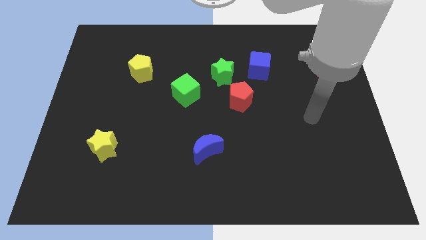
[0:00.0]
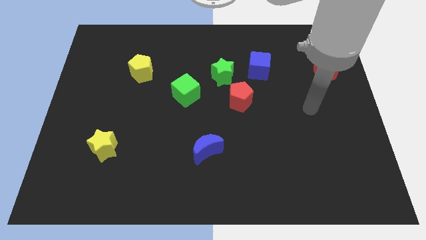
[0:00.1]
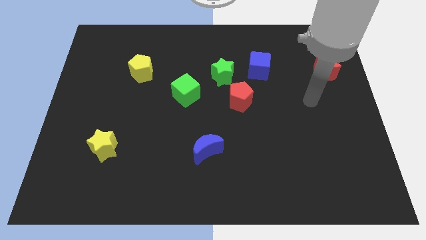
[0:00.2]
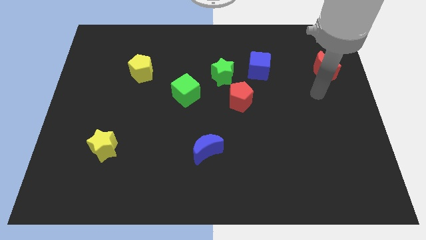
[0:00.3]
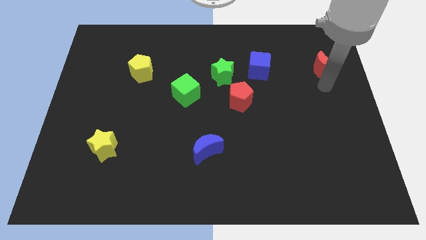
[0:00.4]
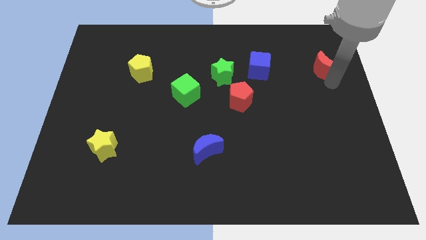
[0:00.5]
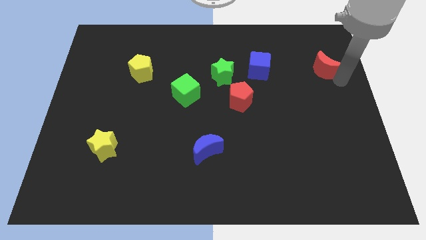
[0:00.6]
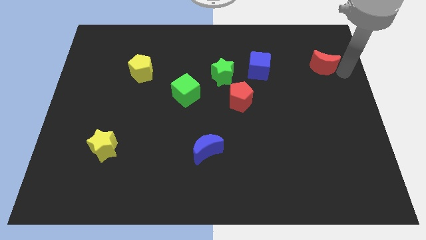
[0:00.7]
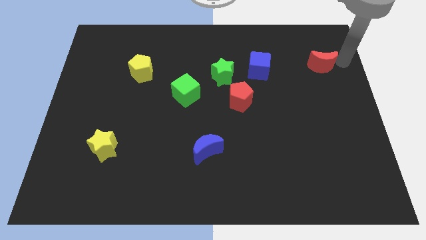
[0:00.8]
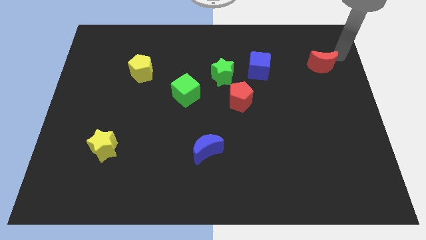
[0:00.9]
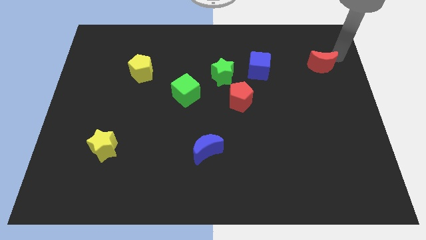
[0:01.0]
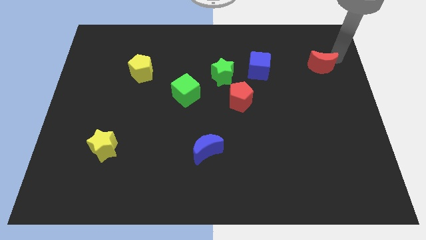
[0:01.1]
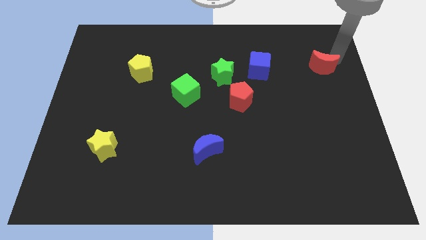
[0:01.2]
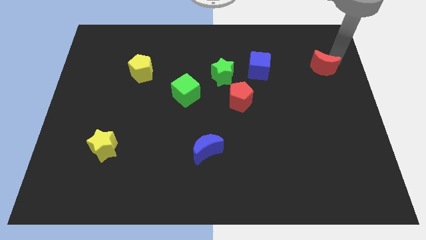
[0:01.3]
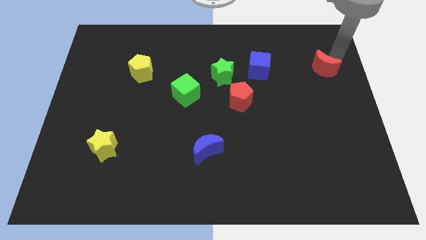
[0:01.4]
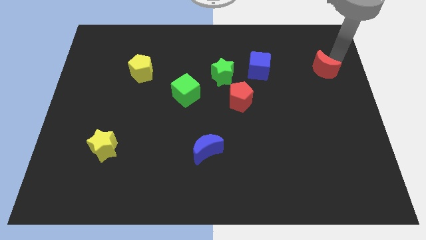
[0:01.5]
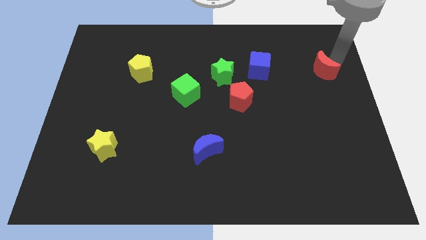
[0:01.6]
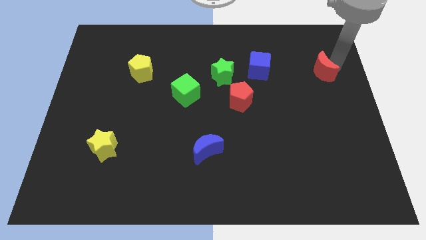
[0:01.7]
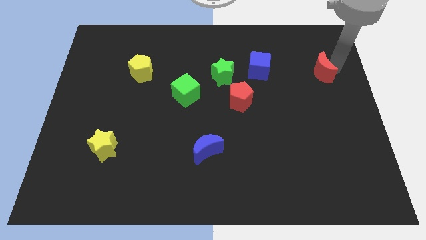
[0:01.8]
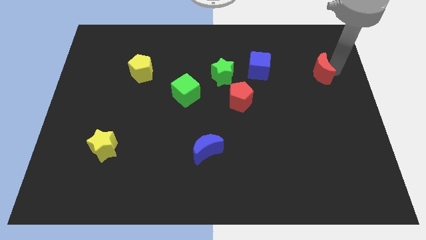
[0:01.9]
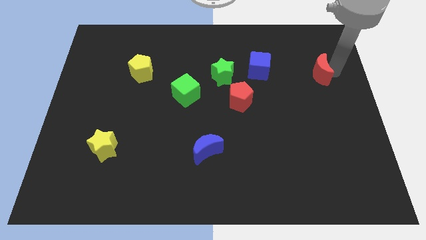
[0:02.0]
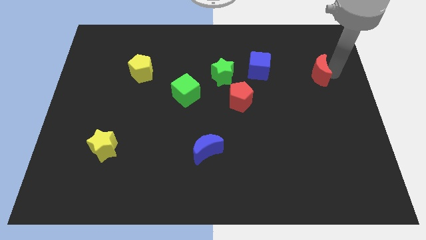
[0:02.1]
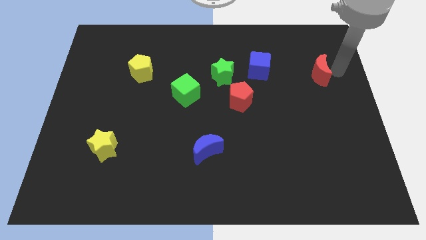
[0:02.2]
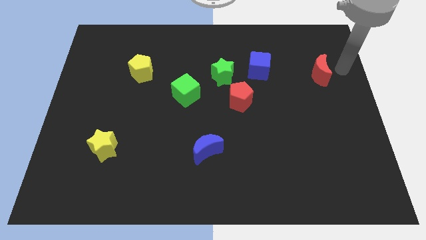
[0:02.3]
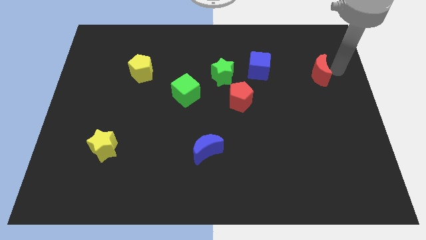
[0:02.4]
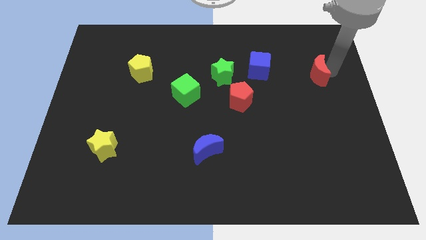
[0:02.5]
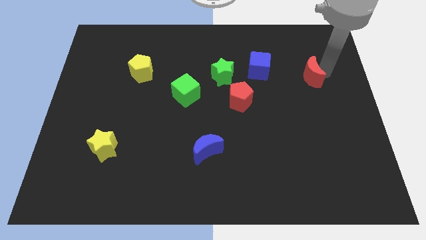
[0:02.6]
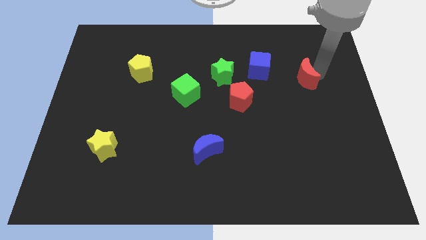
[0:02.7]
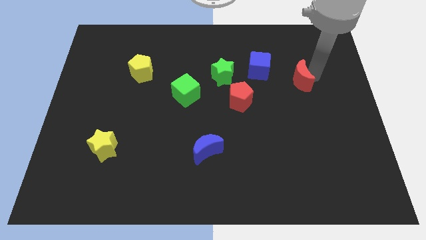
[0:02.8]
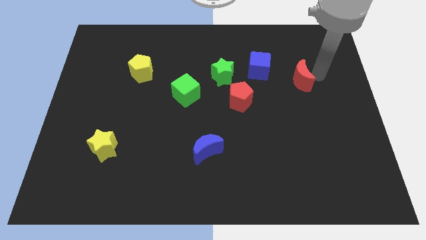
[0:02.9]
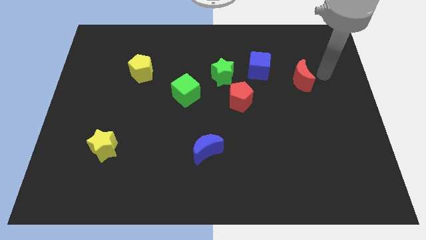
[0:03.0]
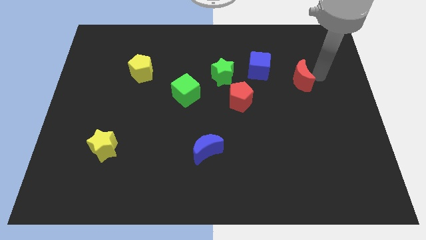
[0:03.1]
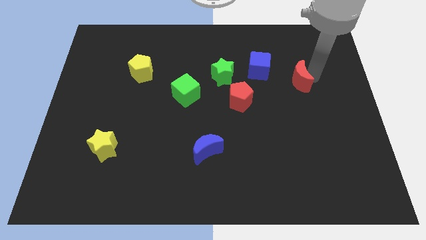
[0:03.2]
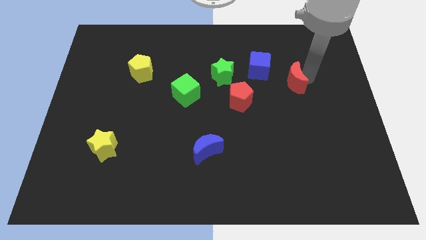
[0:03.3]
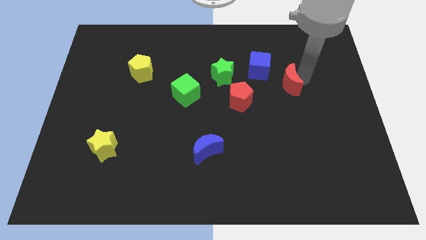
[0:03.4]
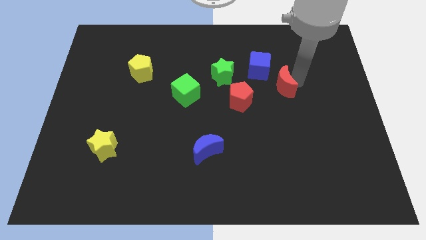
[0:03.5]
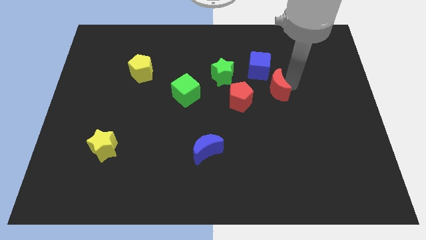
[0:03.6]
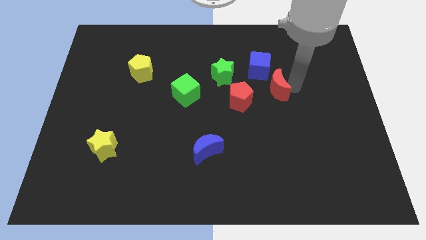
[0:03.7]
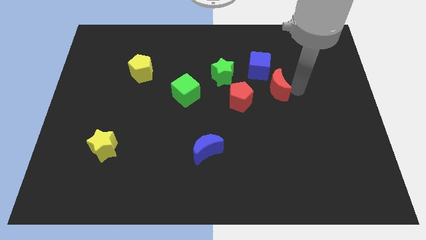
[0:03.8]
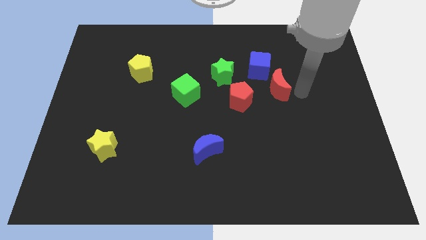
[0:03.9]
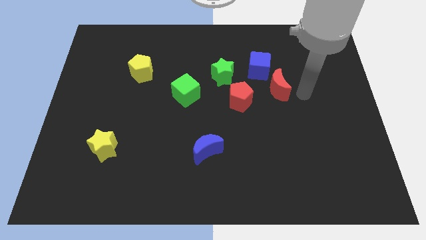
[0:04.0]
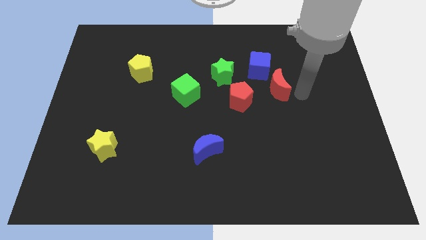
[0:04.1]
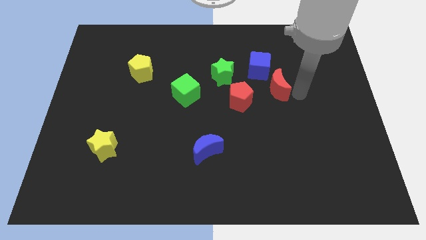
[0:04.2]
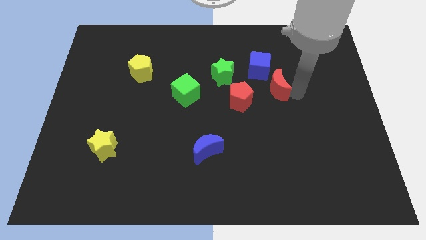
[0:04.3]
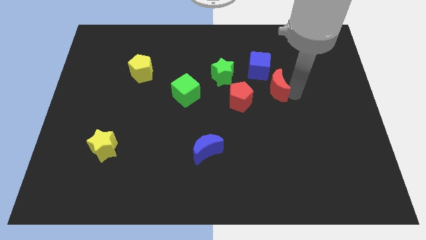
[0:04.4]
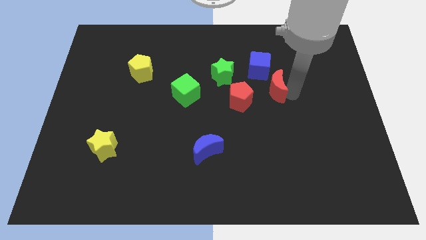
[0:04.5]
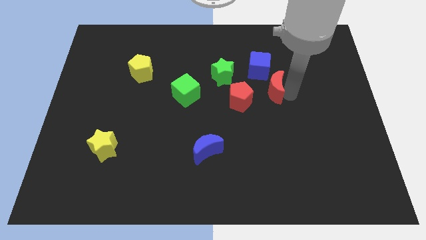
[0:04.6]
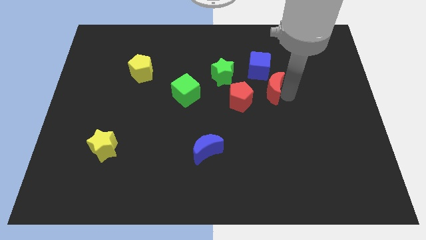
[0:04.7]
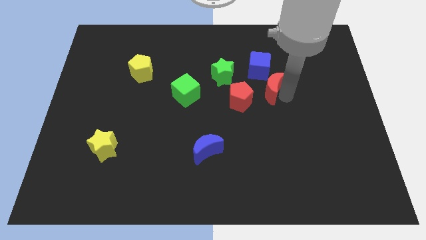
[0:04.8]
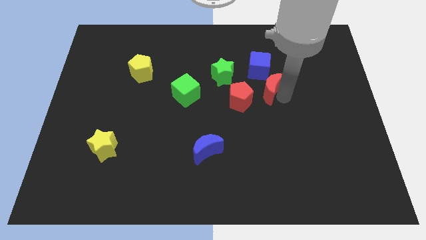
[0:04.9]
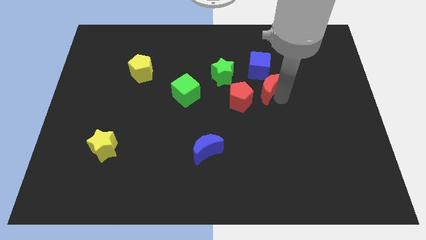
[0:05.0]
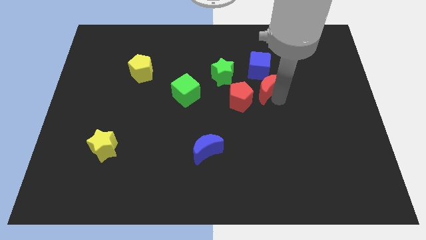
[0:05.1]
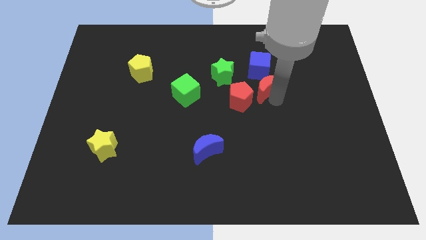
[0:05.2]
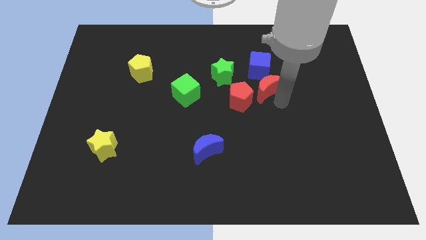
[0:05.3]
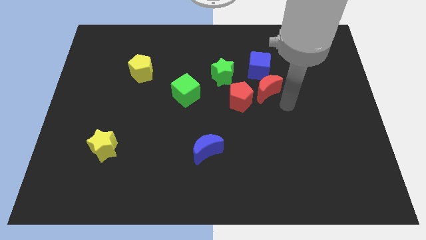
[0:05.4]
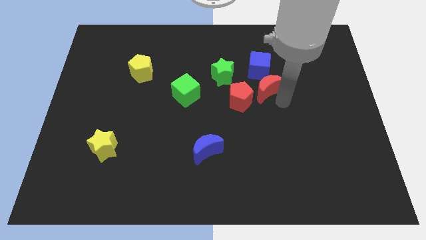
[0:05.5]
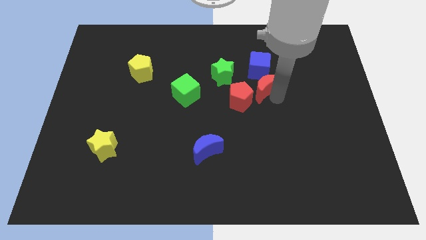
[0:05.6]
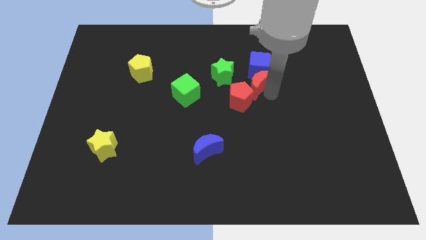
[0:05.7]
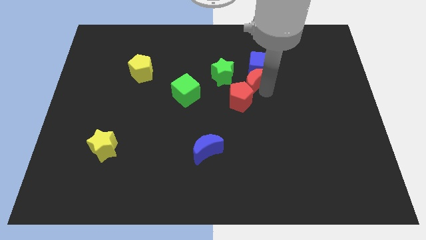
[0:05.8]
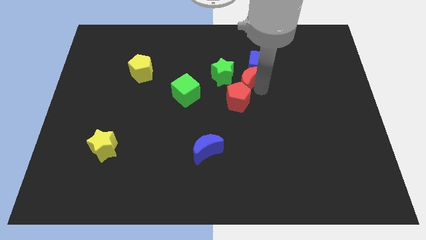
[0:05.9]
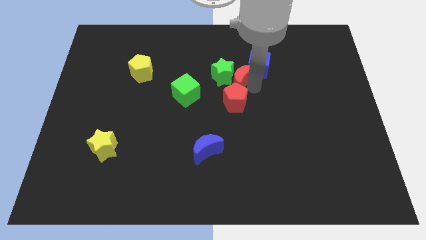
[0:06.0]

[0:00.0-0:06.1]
push the red moon to the left

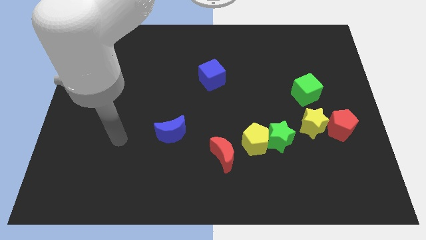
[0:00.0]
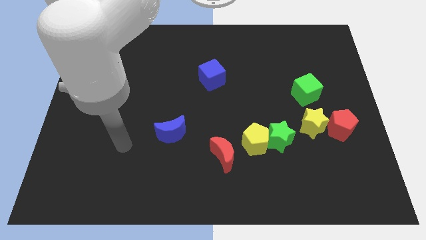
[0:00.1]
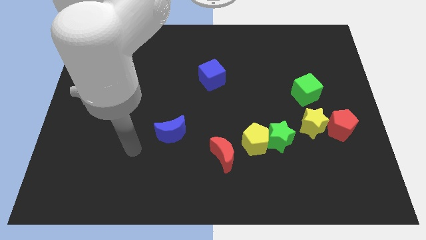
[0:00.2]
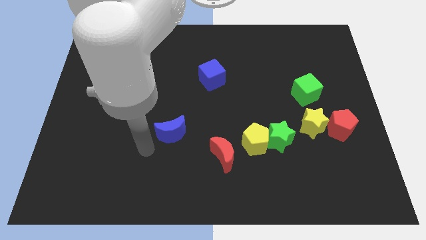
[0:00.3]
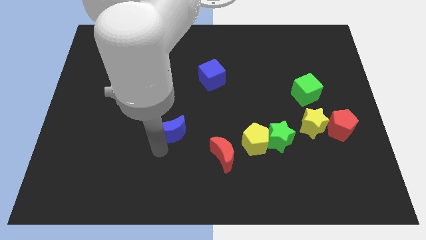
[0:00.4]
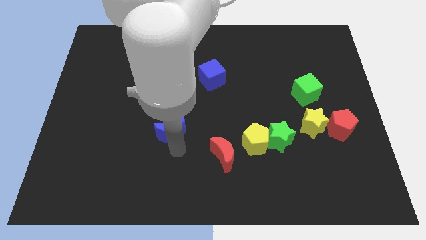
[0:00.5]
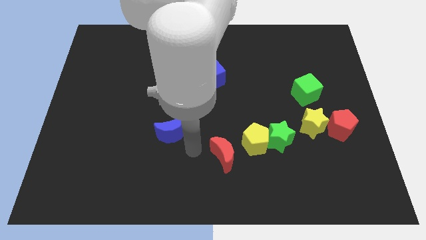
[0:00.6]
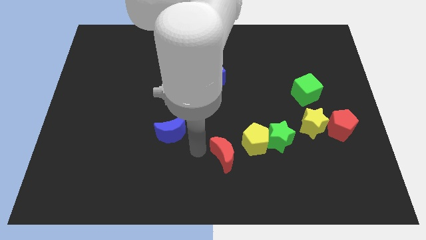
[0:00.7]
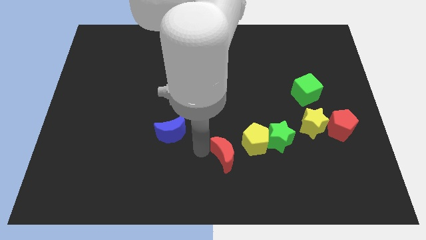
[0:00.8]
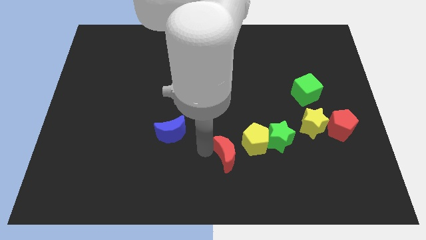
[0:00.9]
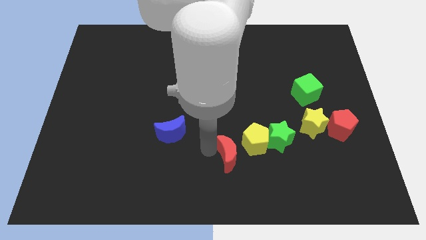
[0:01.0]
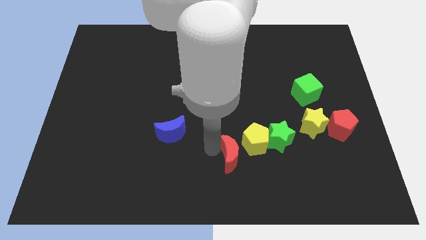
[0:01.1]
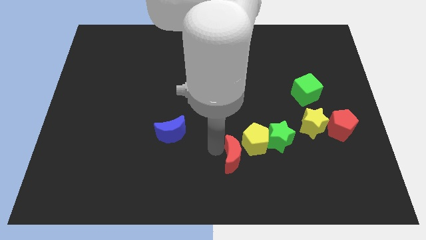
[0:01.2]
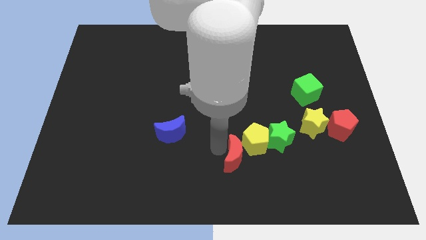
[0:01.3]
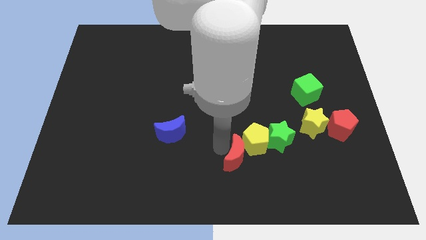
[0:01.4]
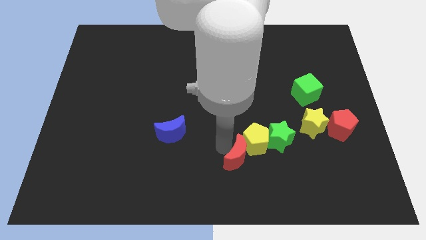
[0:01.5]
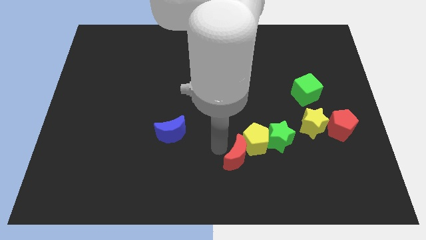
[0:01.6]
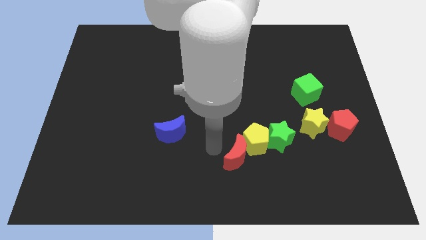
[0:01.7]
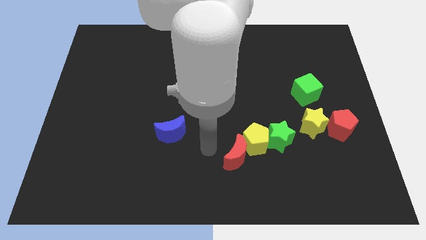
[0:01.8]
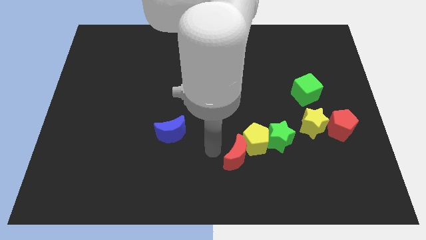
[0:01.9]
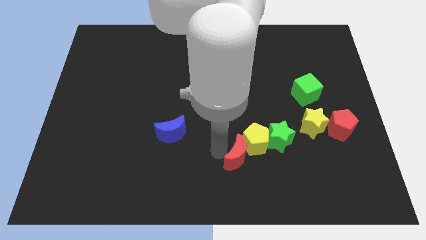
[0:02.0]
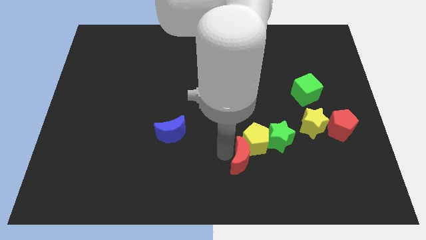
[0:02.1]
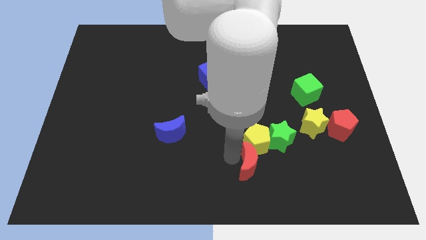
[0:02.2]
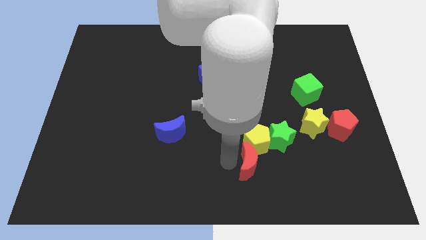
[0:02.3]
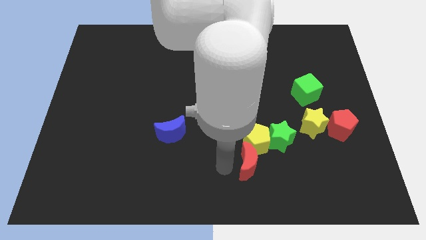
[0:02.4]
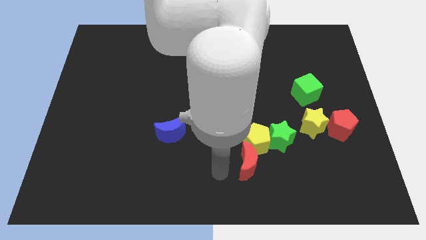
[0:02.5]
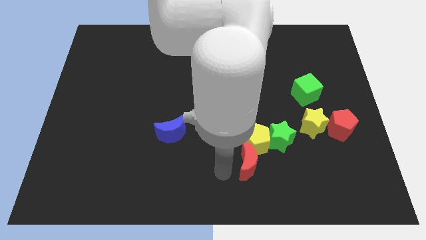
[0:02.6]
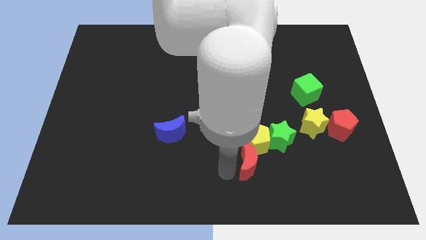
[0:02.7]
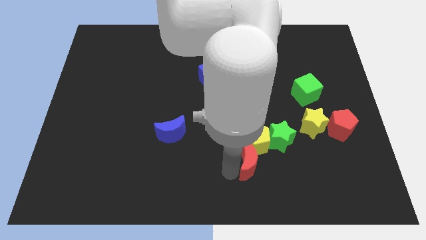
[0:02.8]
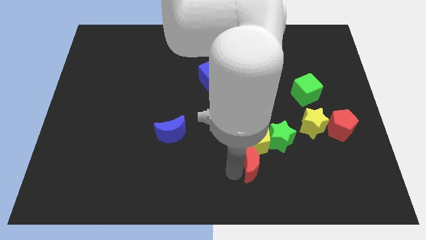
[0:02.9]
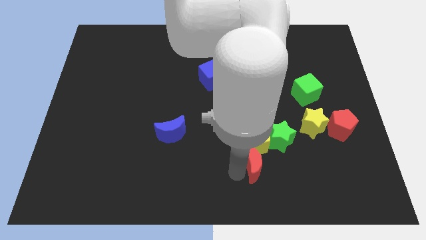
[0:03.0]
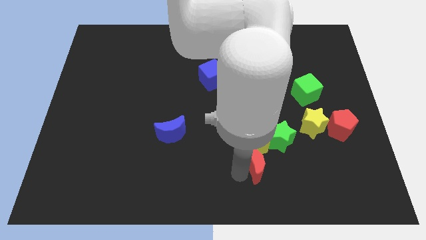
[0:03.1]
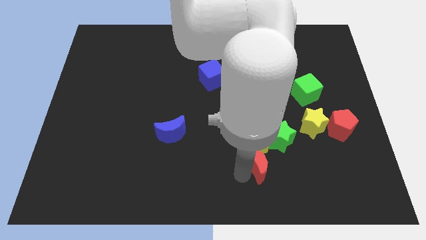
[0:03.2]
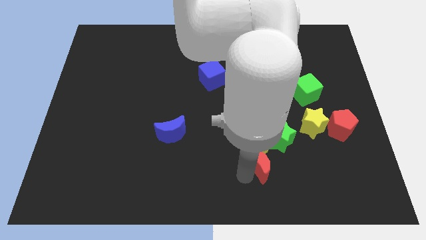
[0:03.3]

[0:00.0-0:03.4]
move the red moon right a little bit
